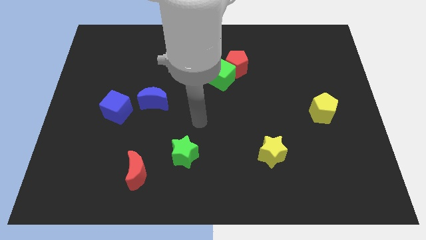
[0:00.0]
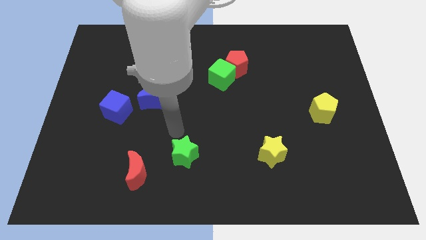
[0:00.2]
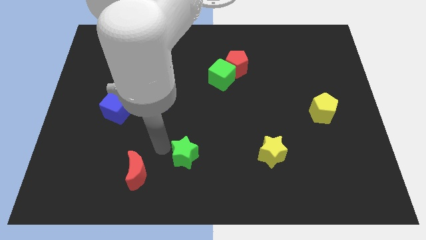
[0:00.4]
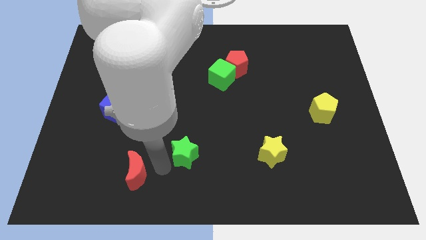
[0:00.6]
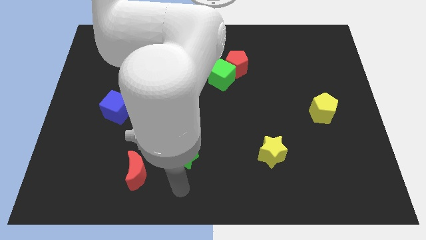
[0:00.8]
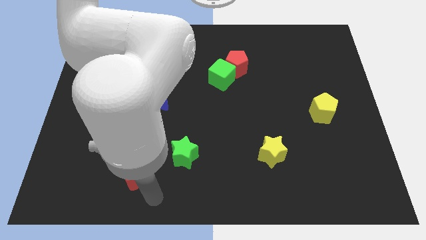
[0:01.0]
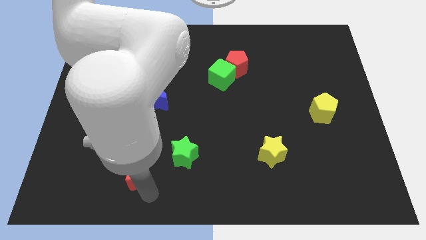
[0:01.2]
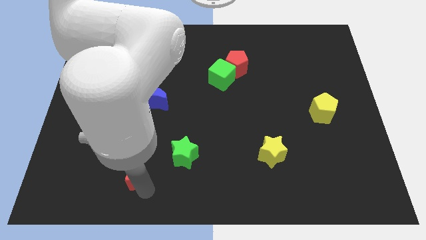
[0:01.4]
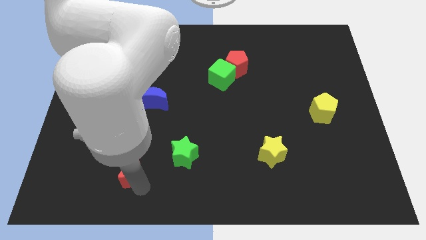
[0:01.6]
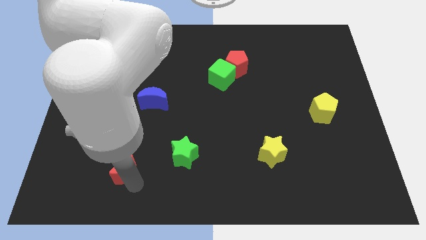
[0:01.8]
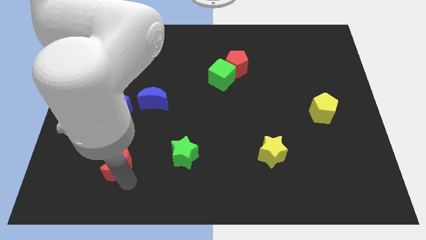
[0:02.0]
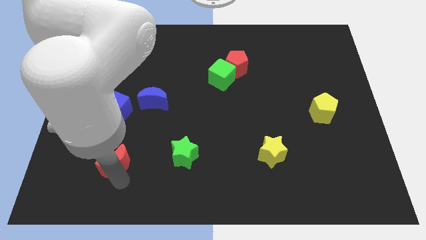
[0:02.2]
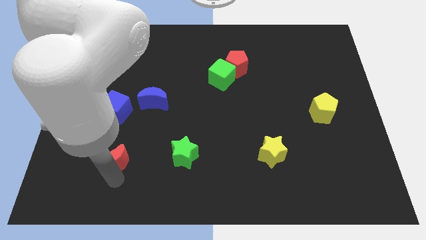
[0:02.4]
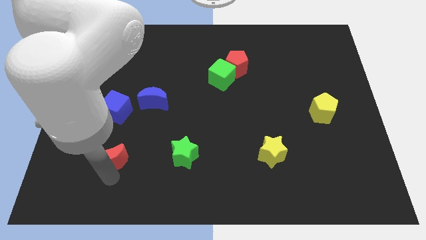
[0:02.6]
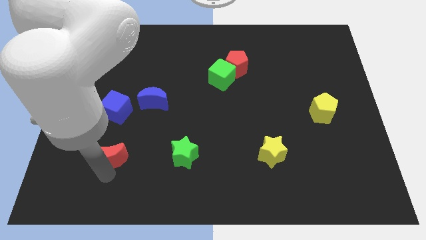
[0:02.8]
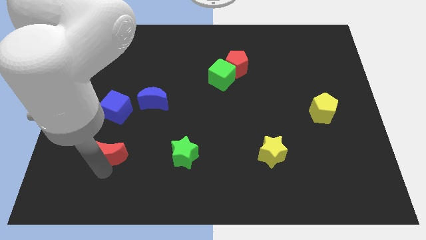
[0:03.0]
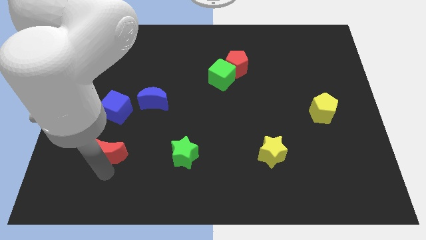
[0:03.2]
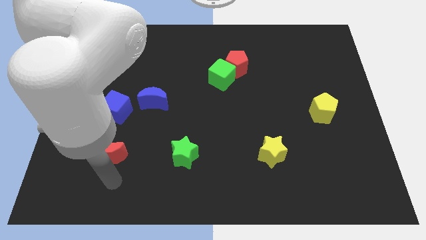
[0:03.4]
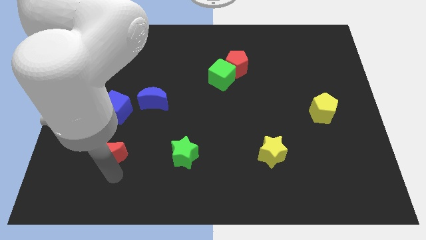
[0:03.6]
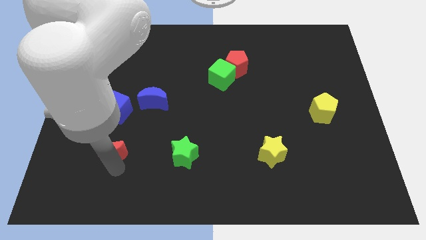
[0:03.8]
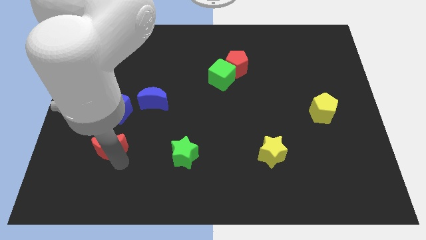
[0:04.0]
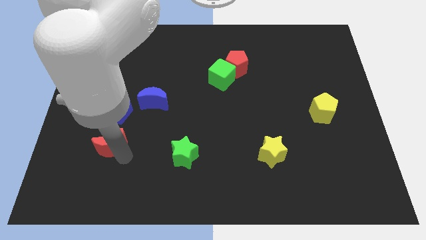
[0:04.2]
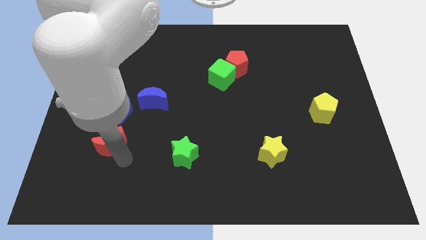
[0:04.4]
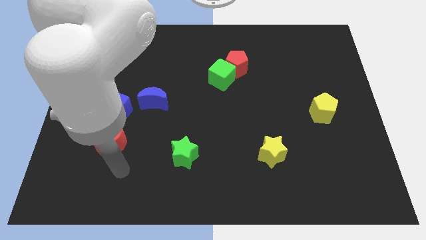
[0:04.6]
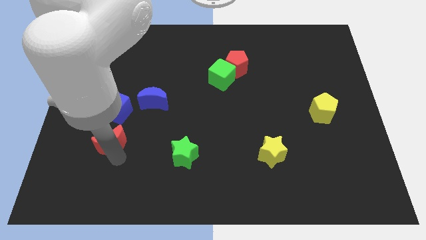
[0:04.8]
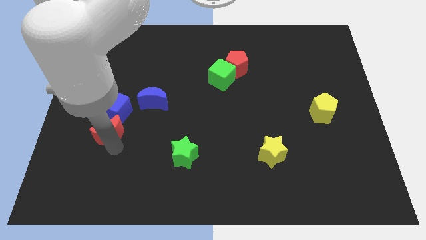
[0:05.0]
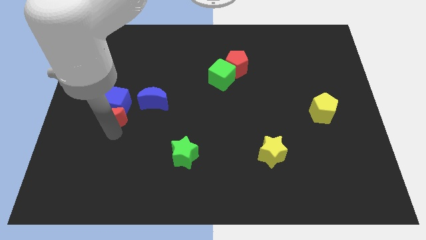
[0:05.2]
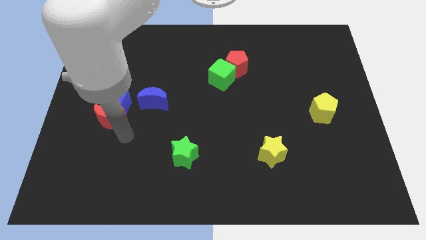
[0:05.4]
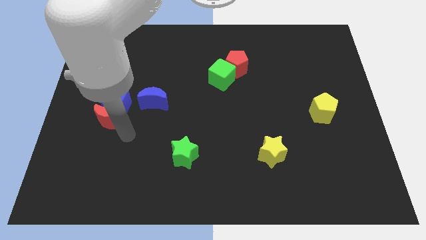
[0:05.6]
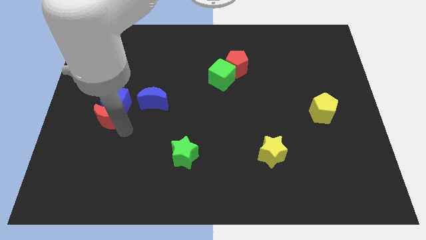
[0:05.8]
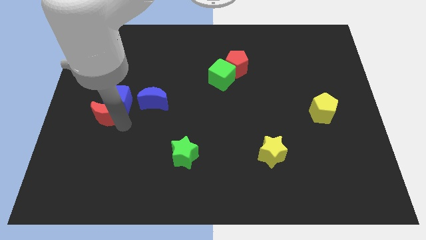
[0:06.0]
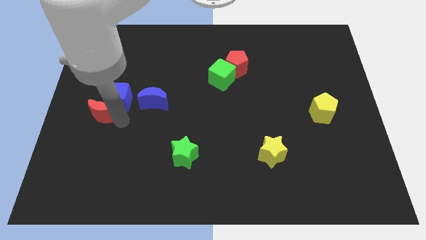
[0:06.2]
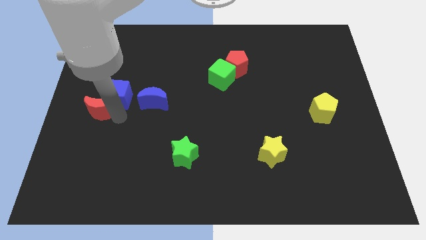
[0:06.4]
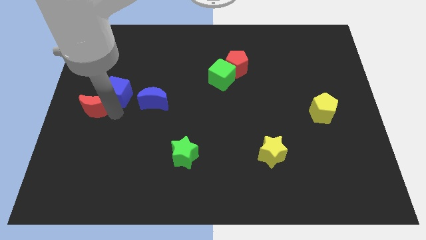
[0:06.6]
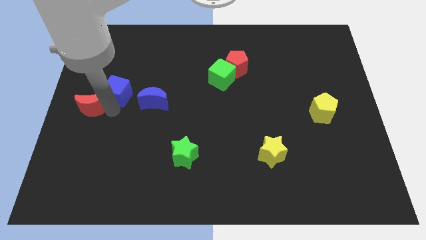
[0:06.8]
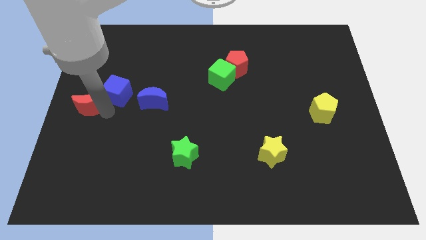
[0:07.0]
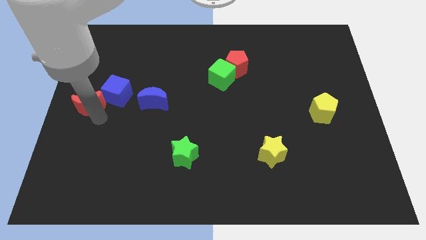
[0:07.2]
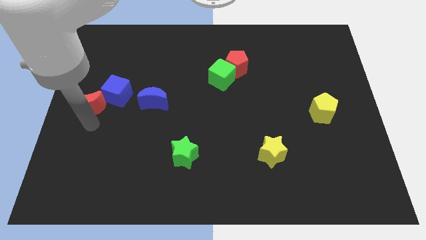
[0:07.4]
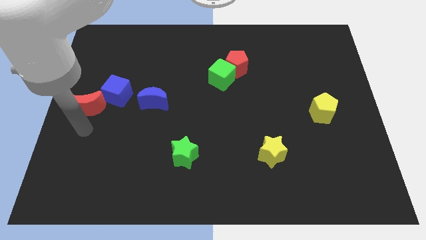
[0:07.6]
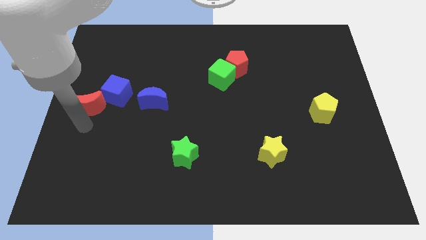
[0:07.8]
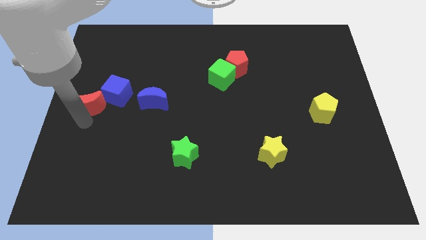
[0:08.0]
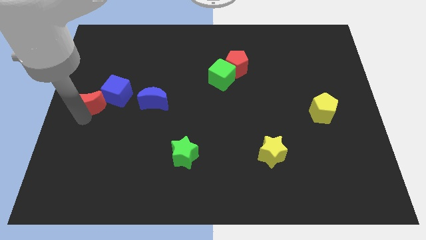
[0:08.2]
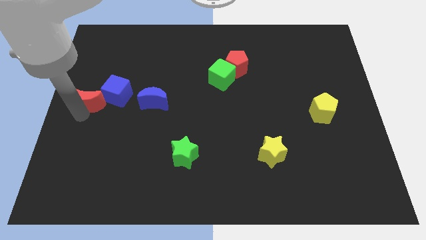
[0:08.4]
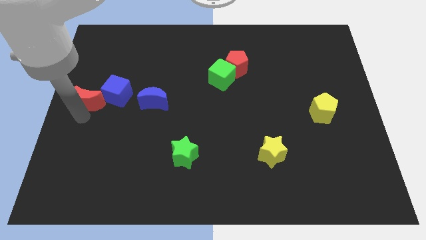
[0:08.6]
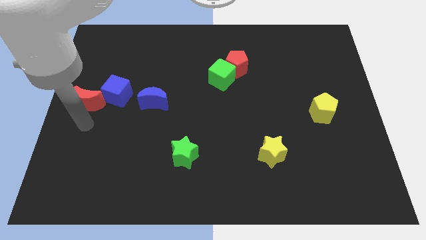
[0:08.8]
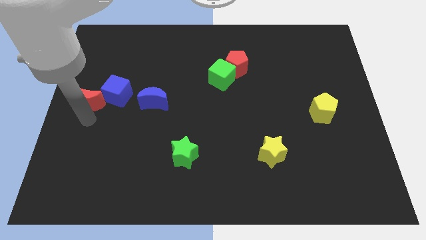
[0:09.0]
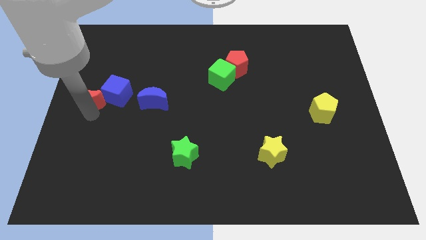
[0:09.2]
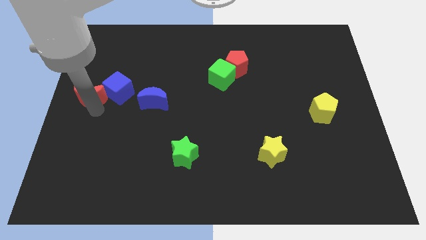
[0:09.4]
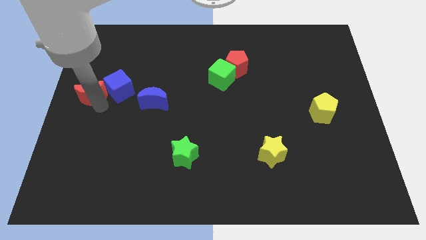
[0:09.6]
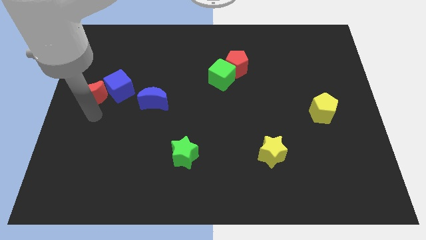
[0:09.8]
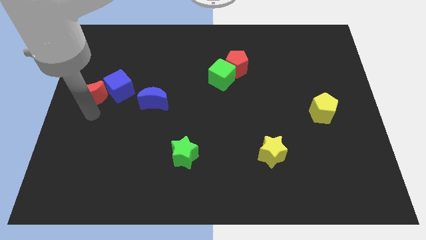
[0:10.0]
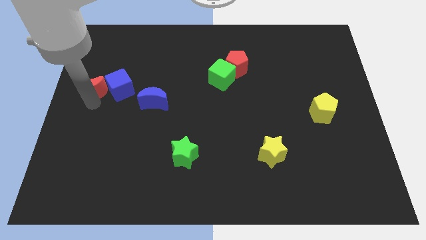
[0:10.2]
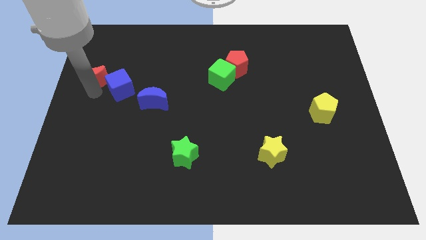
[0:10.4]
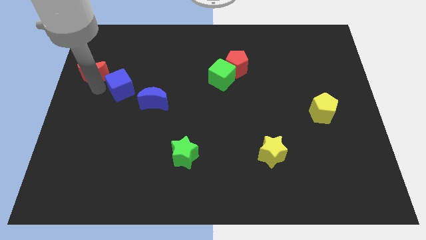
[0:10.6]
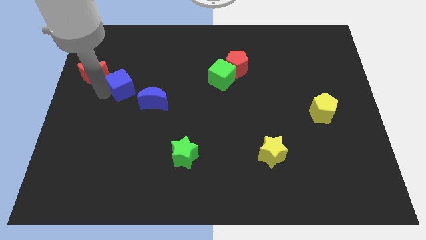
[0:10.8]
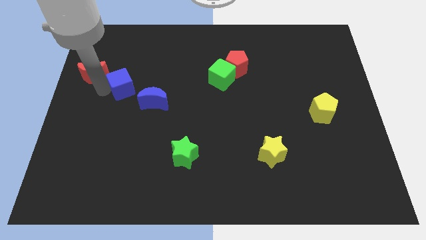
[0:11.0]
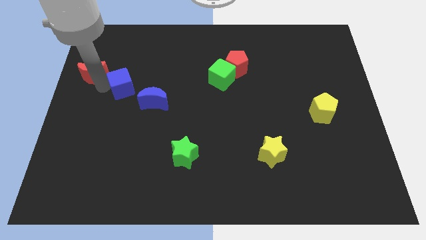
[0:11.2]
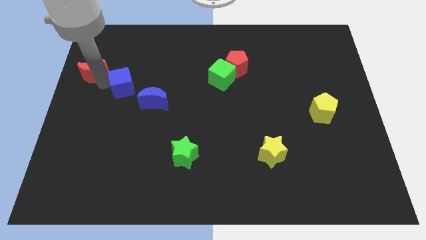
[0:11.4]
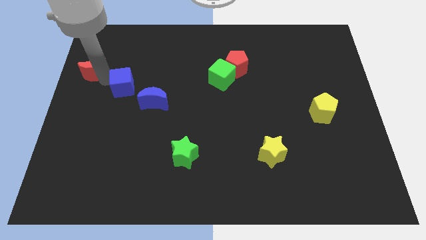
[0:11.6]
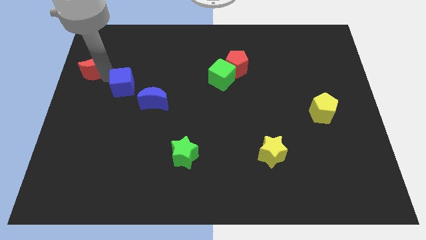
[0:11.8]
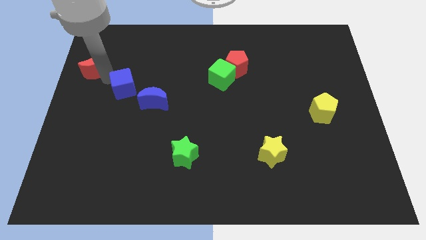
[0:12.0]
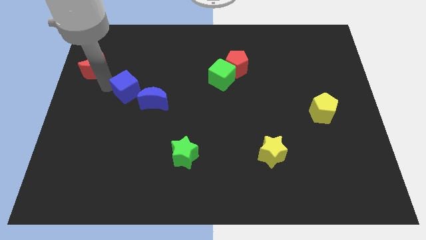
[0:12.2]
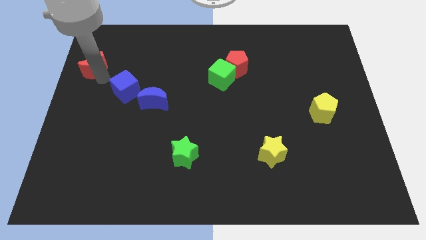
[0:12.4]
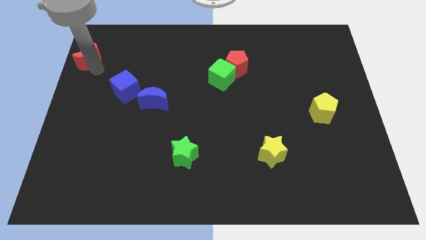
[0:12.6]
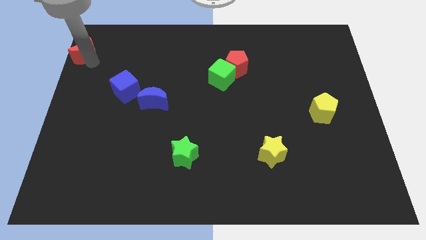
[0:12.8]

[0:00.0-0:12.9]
move the red moon to the upper left corner
